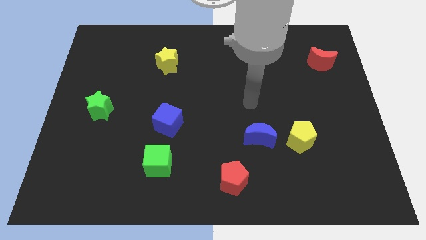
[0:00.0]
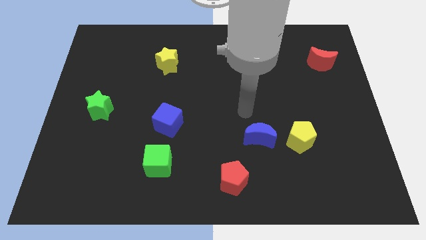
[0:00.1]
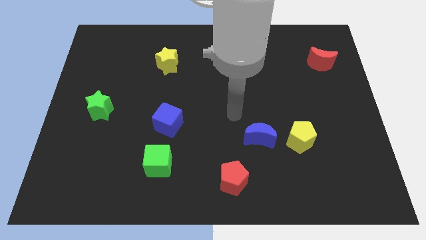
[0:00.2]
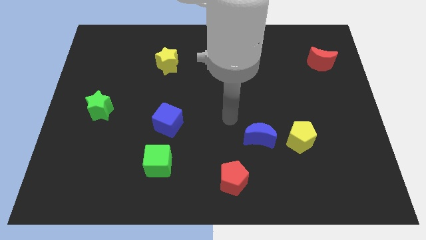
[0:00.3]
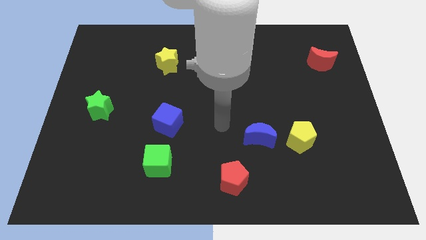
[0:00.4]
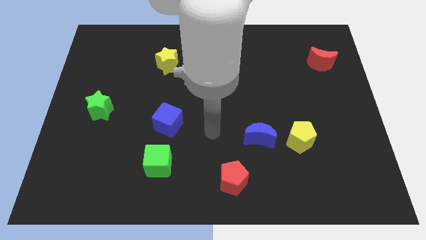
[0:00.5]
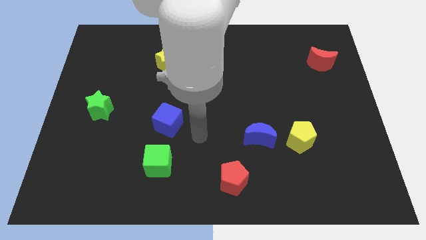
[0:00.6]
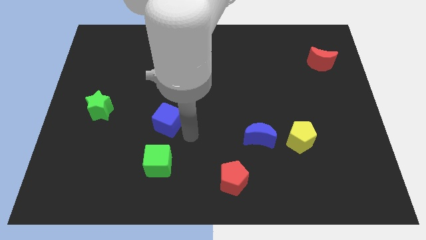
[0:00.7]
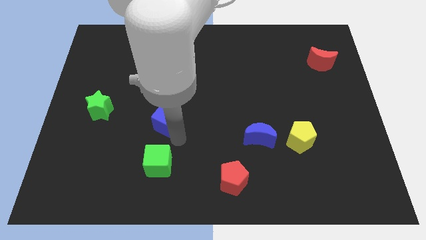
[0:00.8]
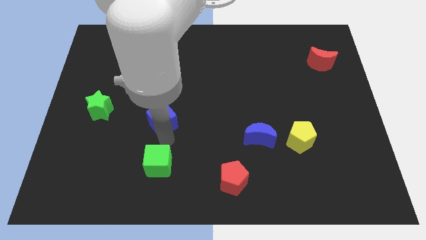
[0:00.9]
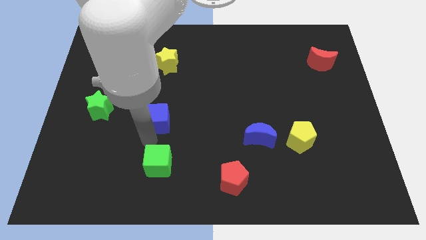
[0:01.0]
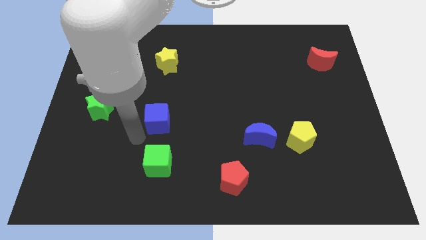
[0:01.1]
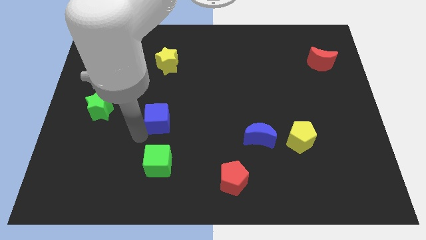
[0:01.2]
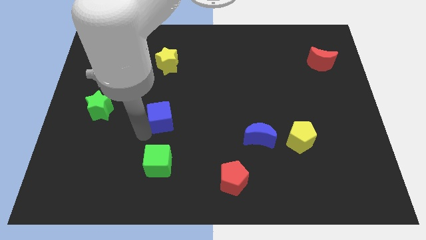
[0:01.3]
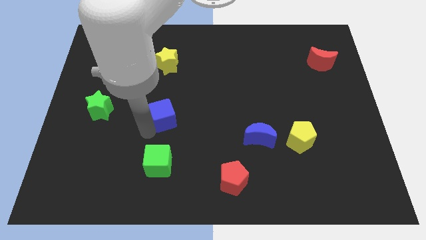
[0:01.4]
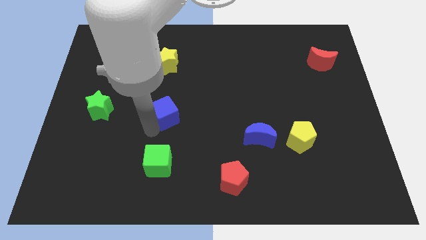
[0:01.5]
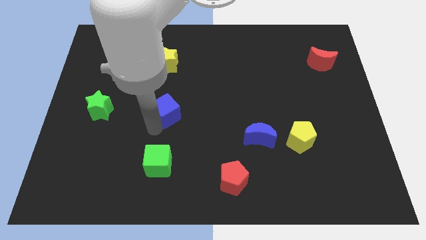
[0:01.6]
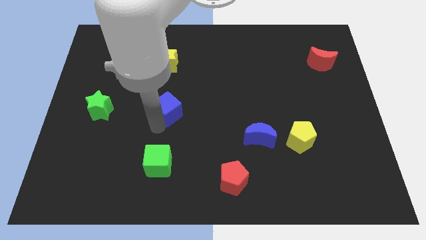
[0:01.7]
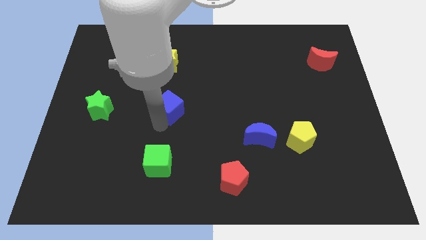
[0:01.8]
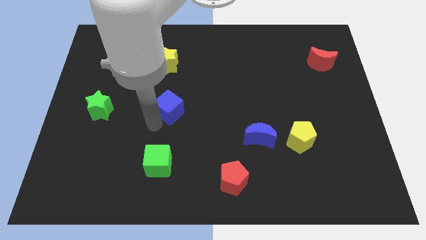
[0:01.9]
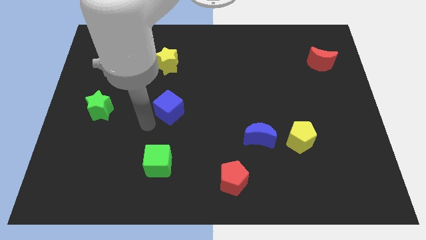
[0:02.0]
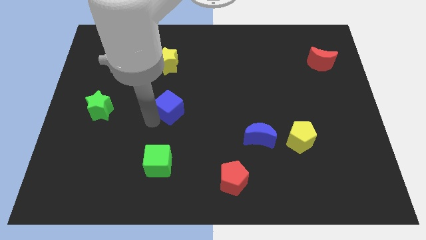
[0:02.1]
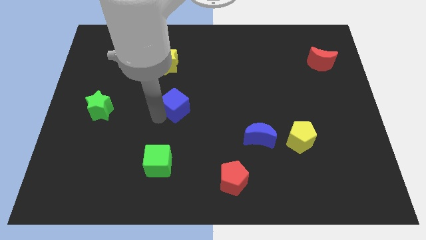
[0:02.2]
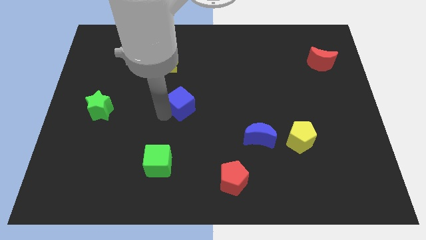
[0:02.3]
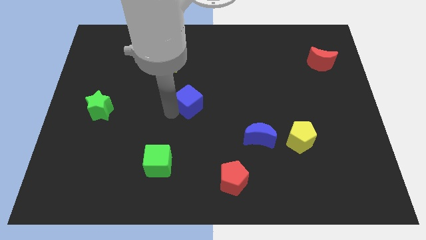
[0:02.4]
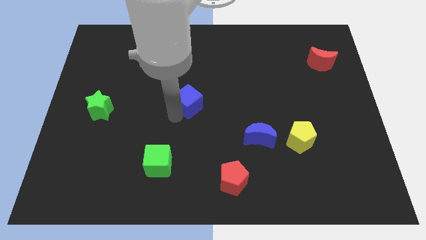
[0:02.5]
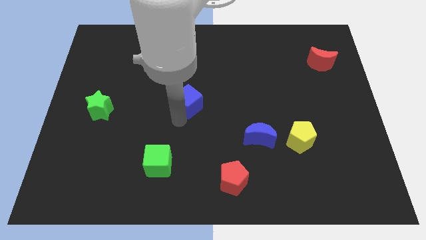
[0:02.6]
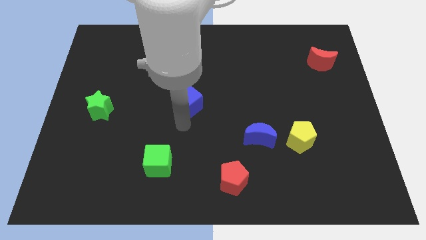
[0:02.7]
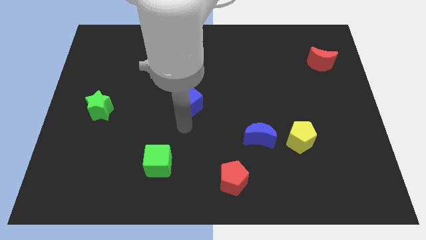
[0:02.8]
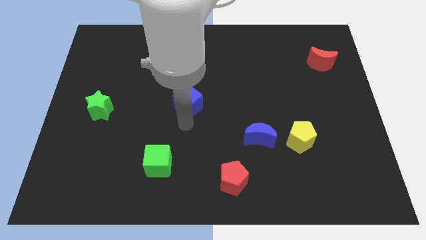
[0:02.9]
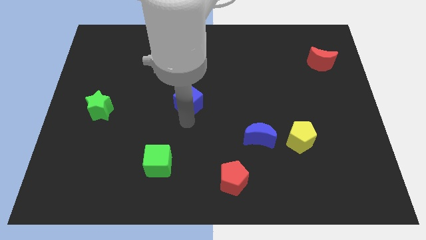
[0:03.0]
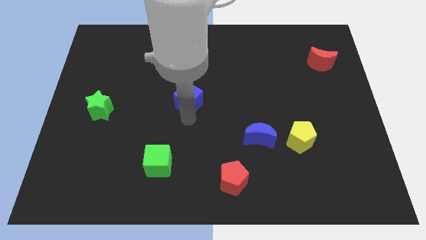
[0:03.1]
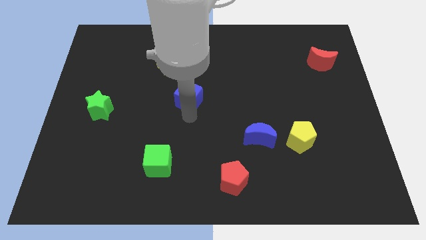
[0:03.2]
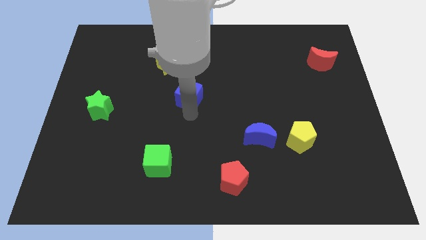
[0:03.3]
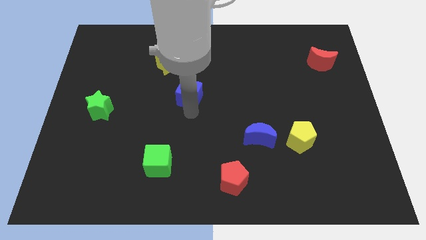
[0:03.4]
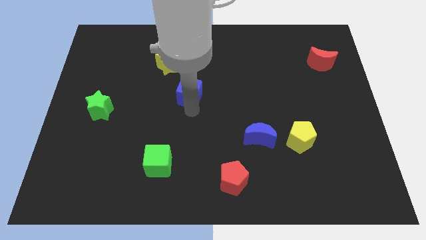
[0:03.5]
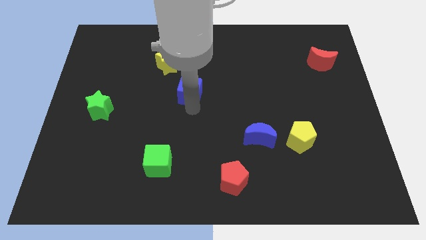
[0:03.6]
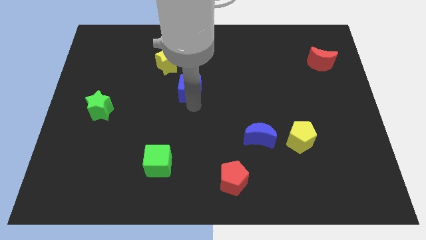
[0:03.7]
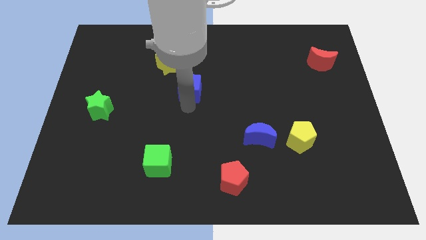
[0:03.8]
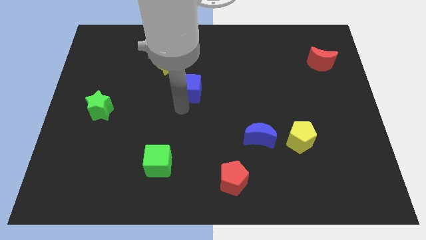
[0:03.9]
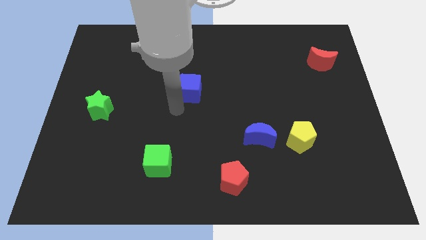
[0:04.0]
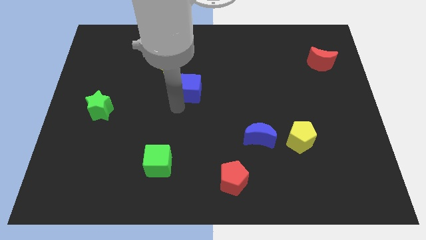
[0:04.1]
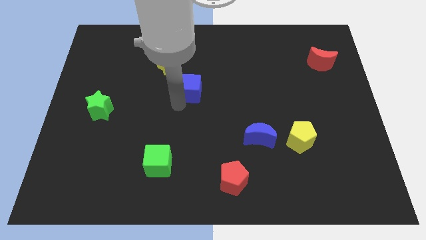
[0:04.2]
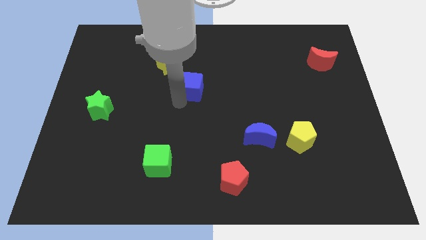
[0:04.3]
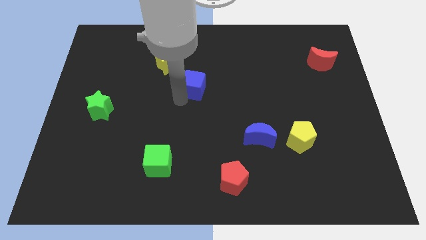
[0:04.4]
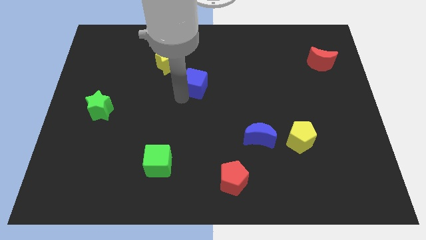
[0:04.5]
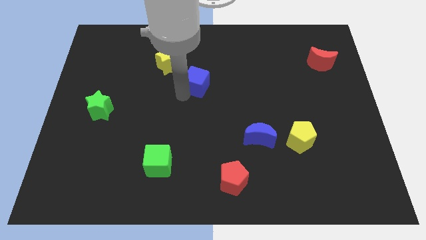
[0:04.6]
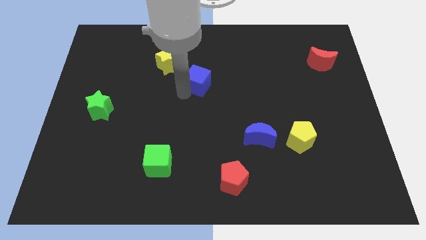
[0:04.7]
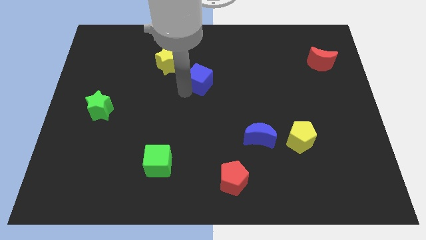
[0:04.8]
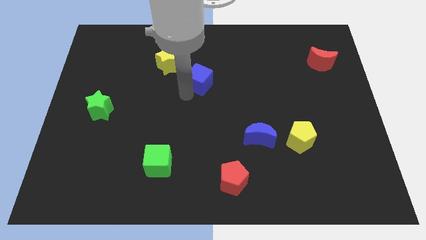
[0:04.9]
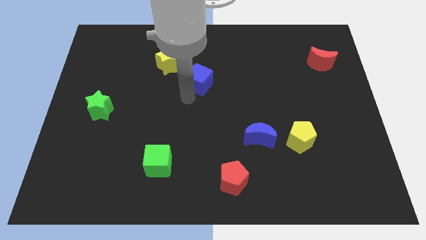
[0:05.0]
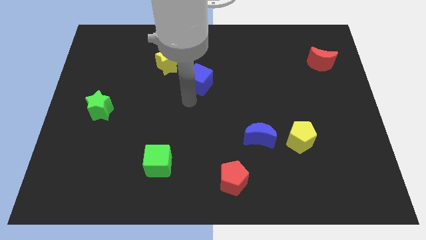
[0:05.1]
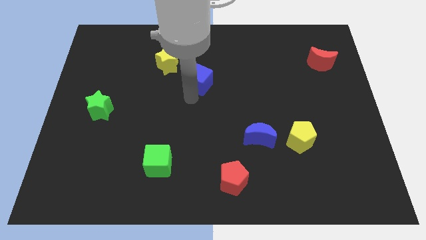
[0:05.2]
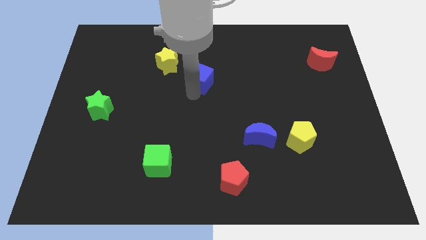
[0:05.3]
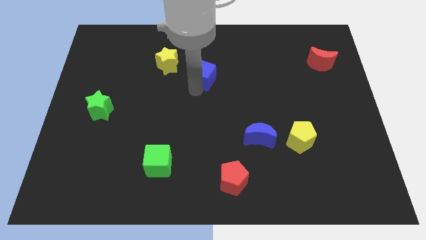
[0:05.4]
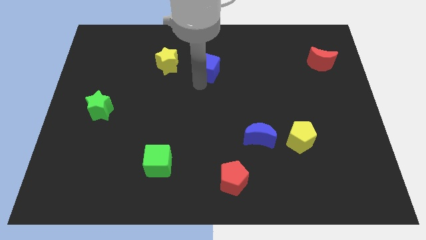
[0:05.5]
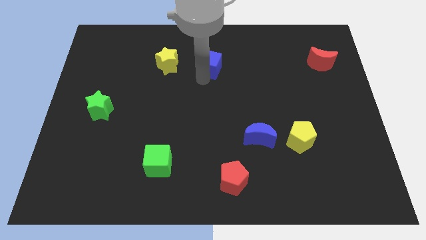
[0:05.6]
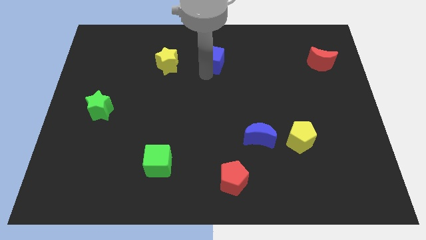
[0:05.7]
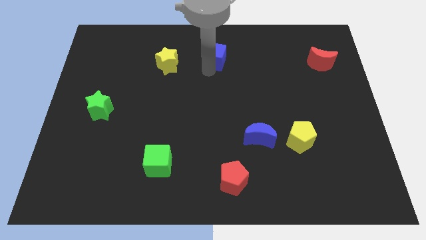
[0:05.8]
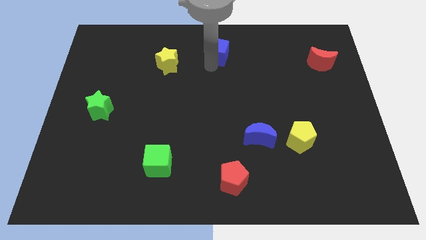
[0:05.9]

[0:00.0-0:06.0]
put the blue cube to the top side

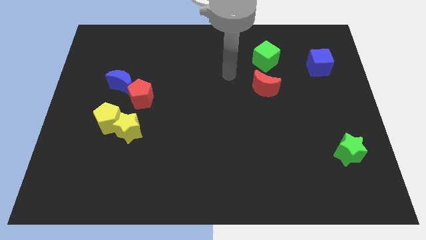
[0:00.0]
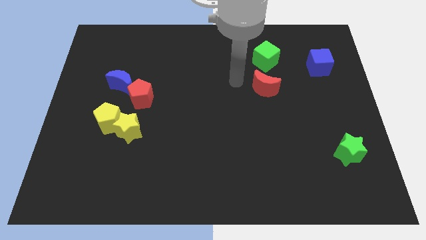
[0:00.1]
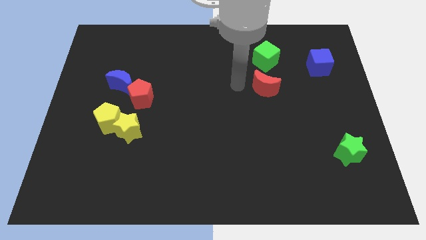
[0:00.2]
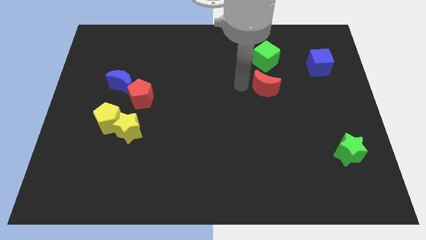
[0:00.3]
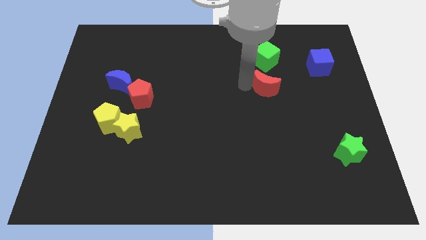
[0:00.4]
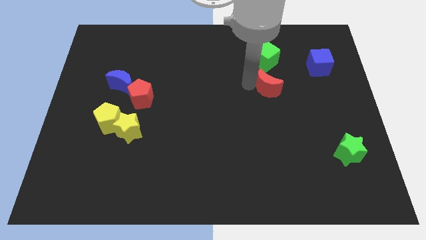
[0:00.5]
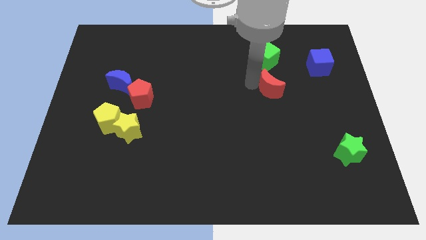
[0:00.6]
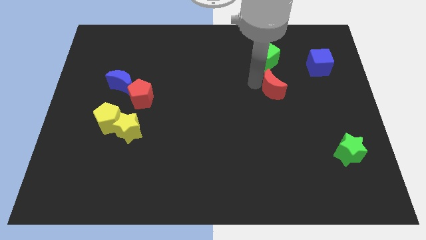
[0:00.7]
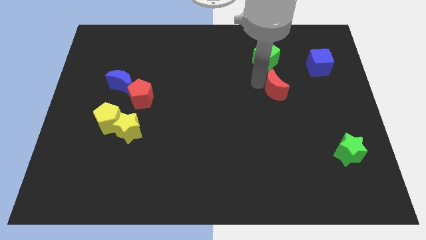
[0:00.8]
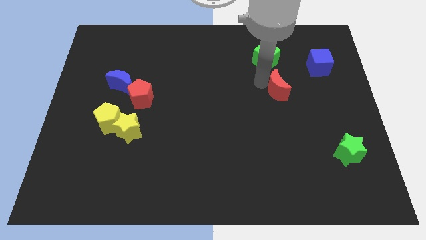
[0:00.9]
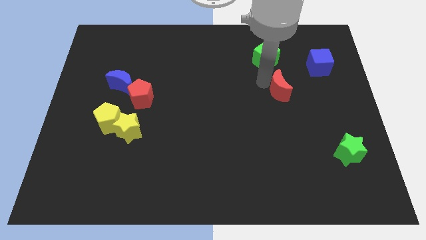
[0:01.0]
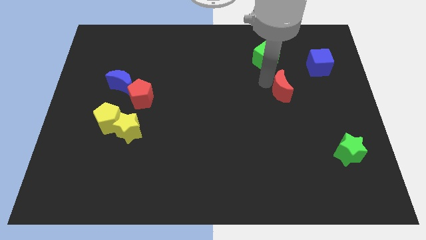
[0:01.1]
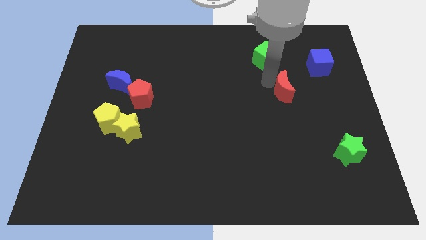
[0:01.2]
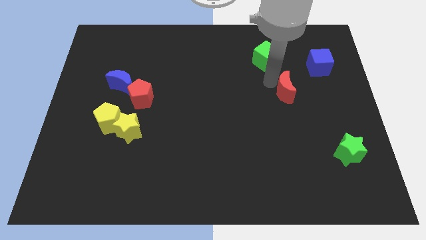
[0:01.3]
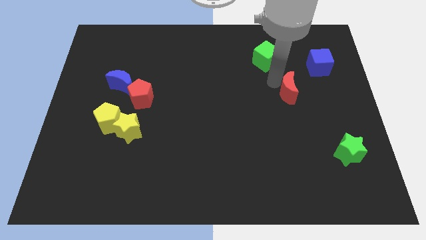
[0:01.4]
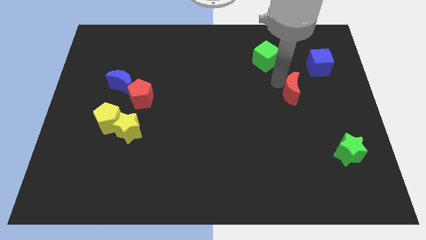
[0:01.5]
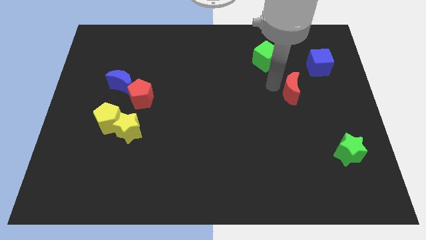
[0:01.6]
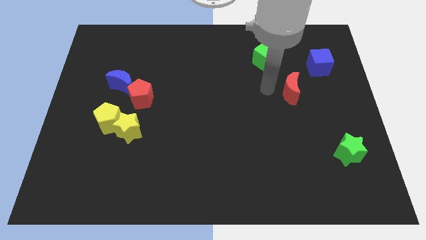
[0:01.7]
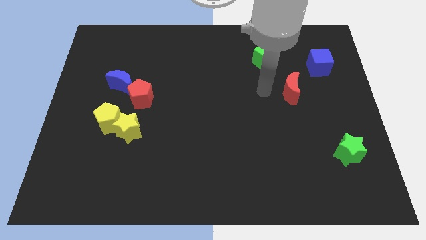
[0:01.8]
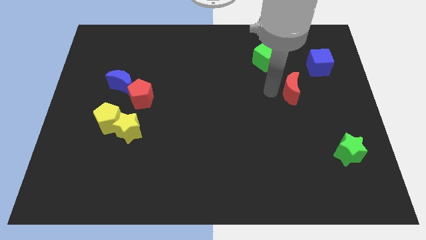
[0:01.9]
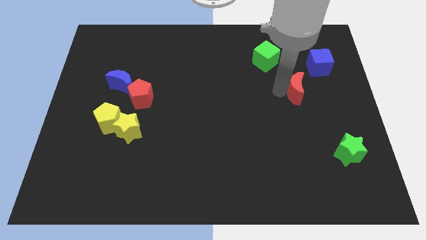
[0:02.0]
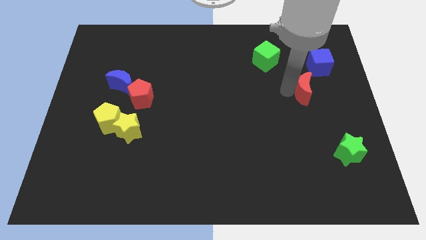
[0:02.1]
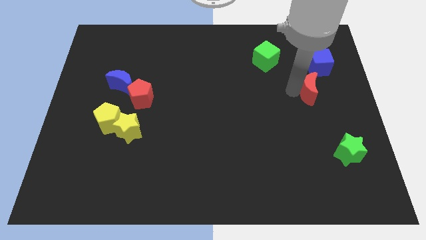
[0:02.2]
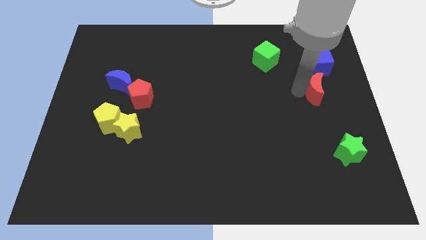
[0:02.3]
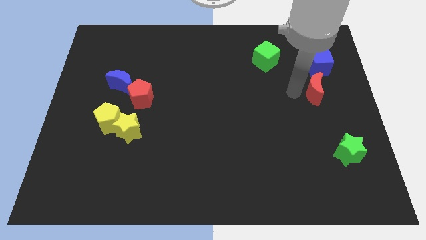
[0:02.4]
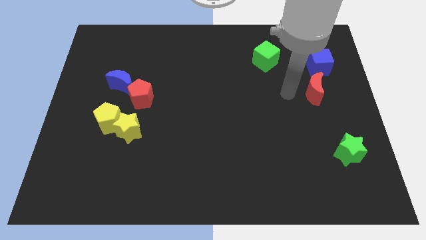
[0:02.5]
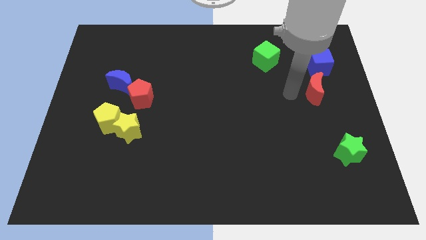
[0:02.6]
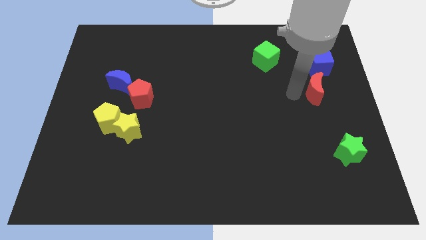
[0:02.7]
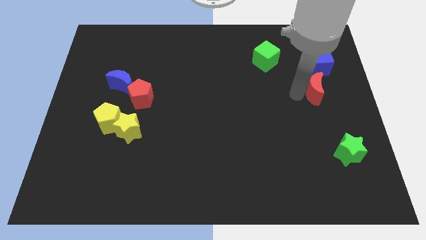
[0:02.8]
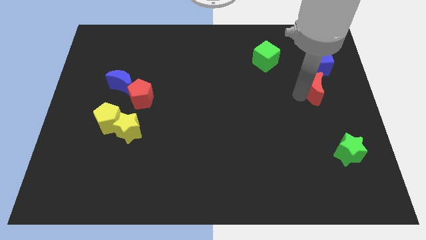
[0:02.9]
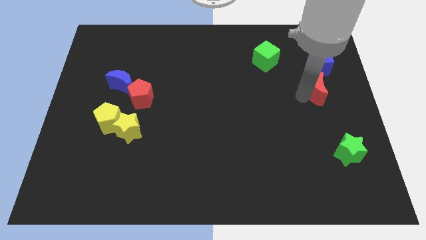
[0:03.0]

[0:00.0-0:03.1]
put the red moon to the center right
